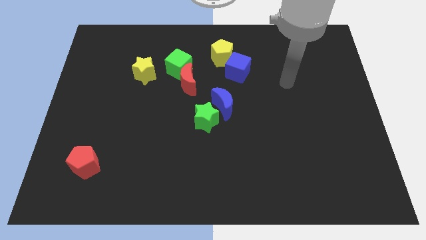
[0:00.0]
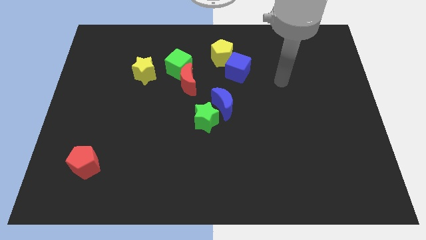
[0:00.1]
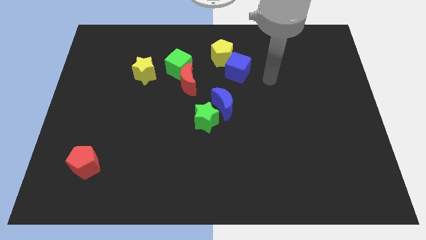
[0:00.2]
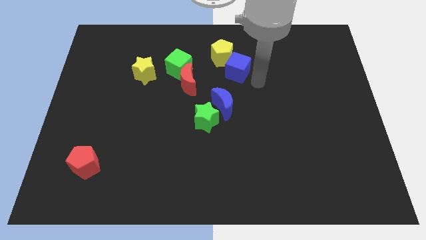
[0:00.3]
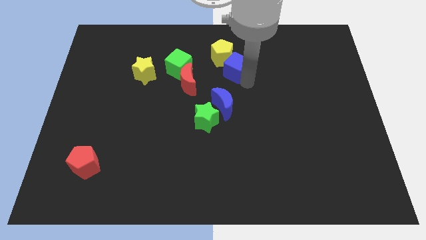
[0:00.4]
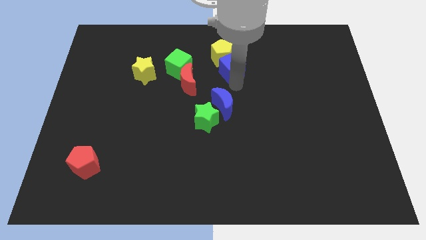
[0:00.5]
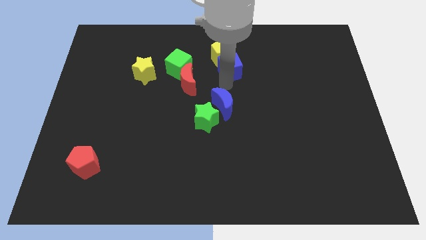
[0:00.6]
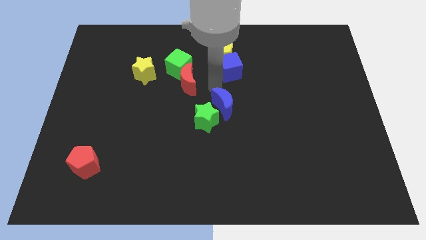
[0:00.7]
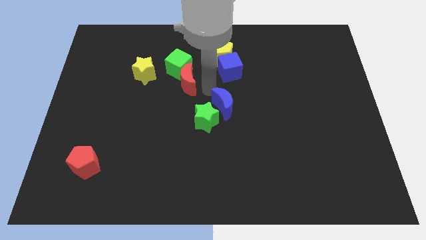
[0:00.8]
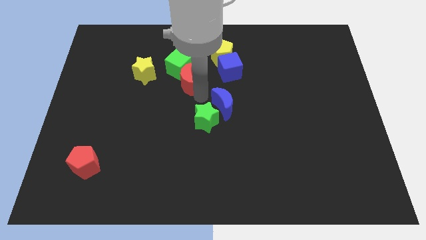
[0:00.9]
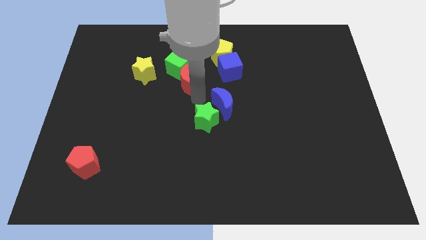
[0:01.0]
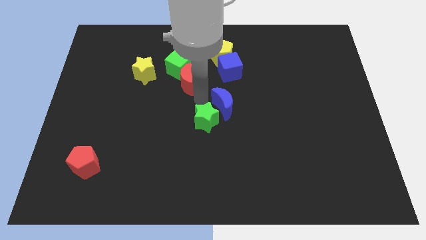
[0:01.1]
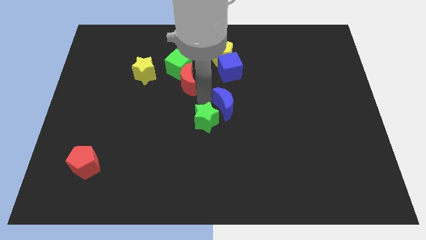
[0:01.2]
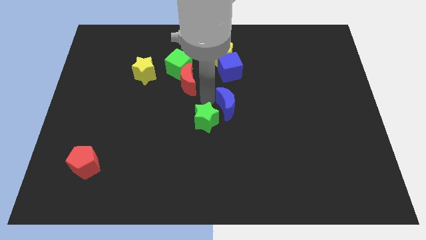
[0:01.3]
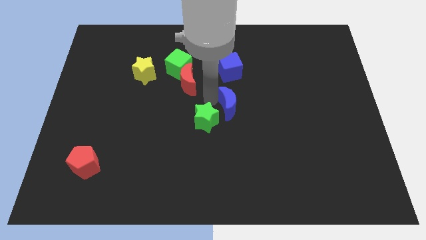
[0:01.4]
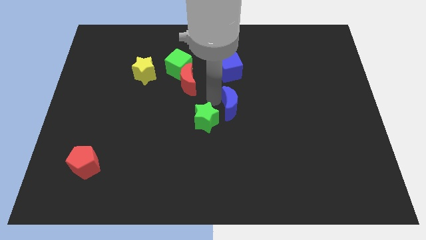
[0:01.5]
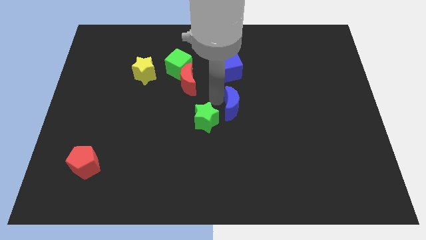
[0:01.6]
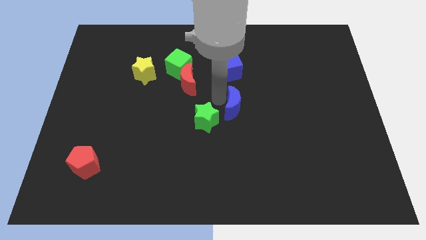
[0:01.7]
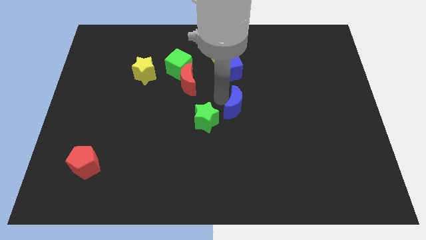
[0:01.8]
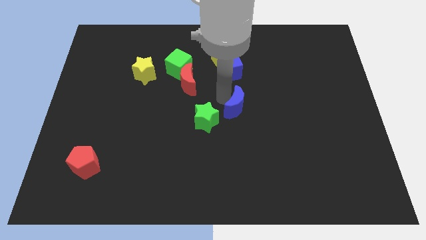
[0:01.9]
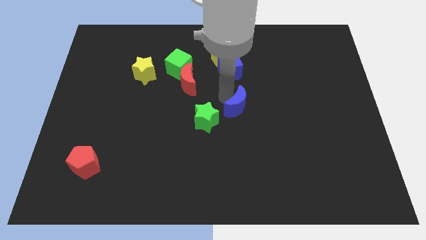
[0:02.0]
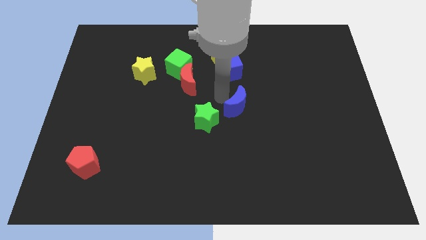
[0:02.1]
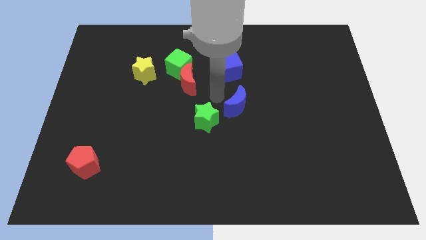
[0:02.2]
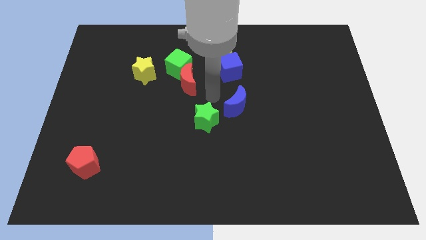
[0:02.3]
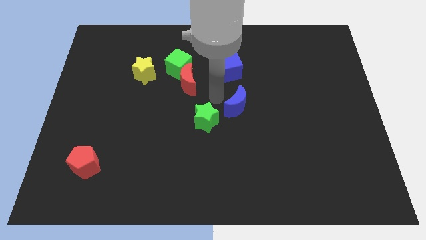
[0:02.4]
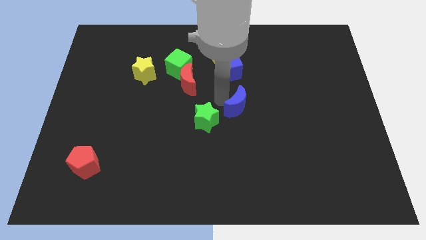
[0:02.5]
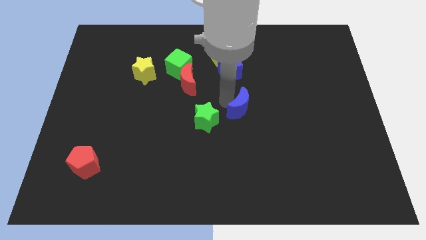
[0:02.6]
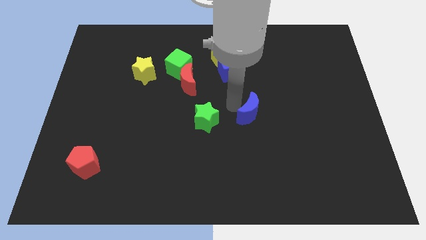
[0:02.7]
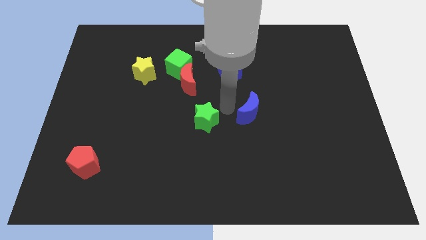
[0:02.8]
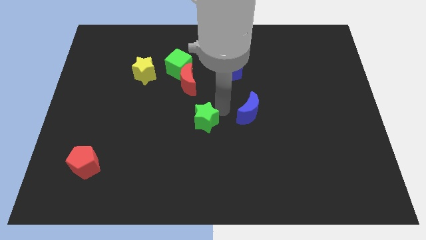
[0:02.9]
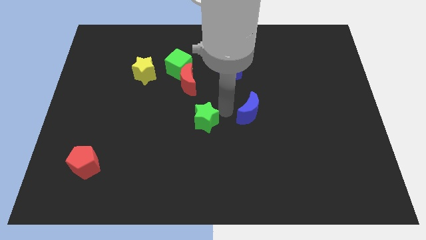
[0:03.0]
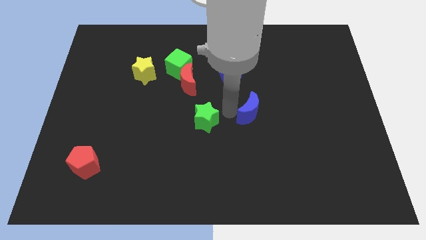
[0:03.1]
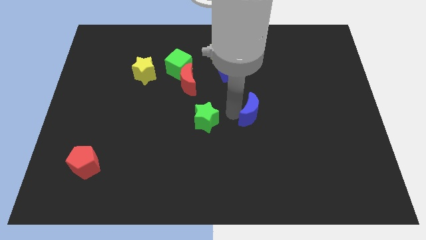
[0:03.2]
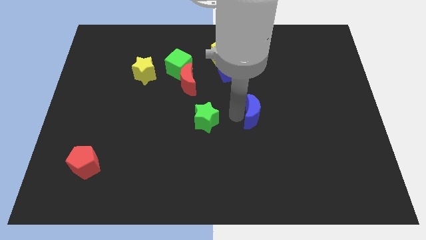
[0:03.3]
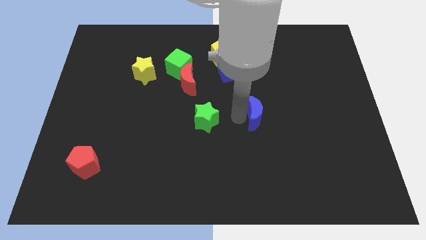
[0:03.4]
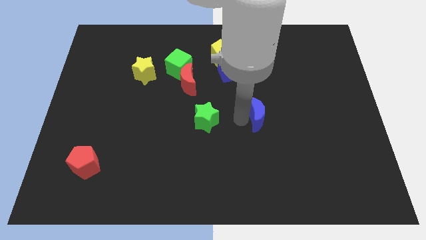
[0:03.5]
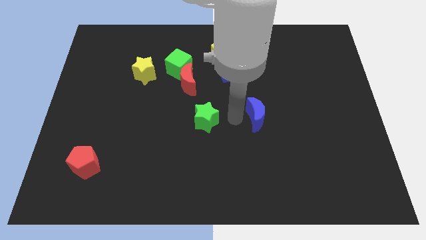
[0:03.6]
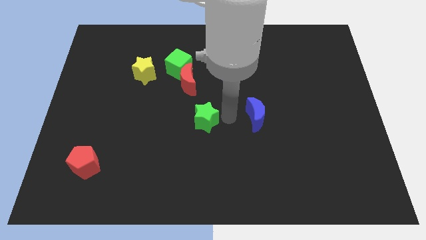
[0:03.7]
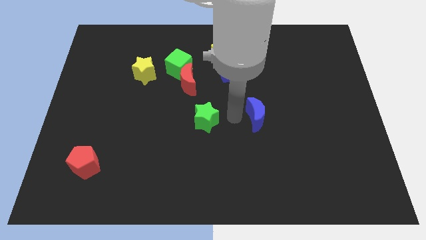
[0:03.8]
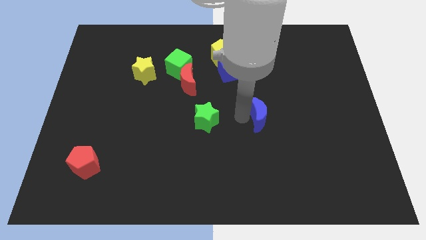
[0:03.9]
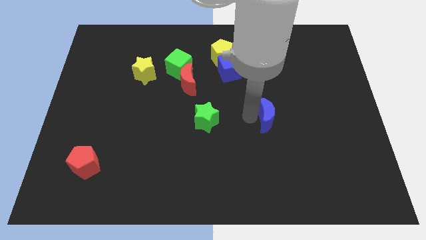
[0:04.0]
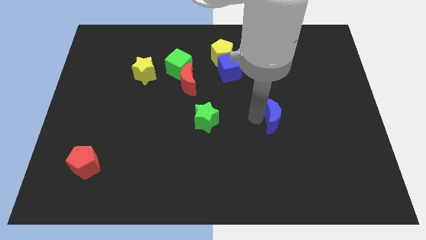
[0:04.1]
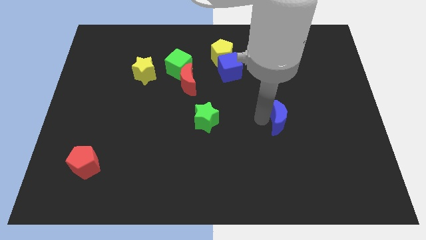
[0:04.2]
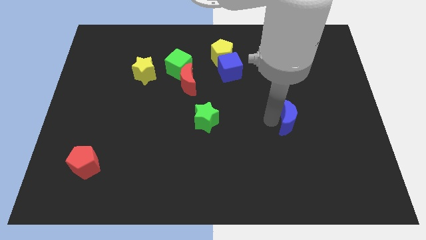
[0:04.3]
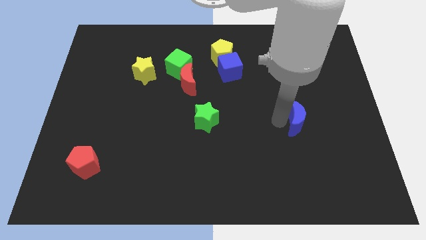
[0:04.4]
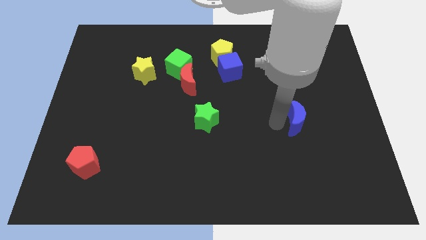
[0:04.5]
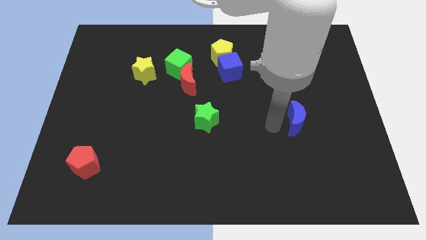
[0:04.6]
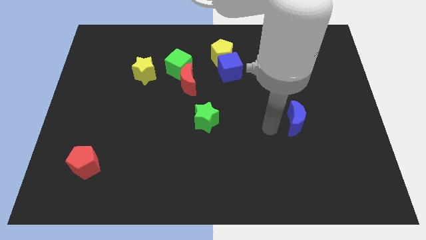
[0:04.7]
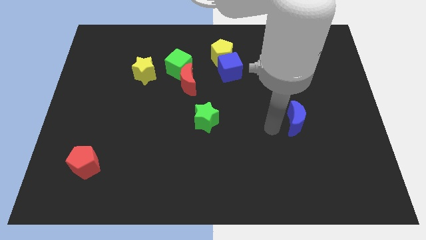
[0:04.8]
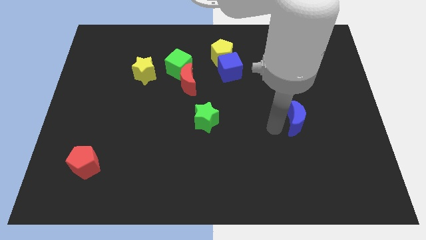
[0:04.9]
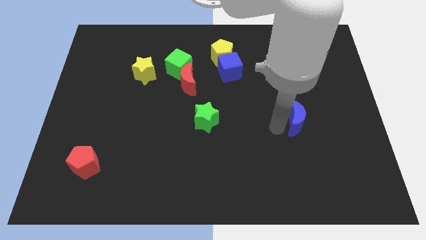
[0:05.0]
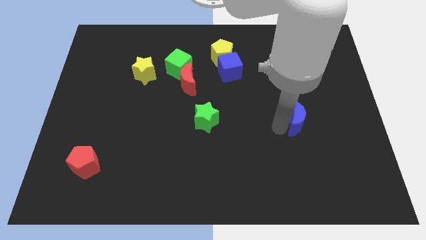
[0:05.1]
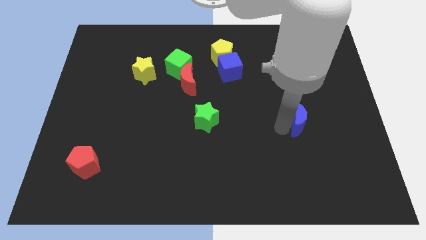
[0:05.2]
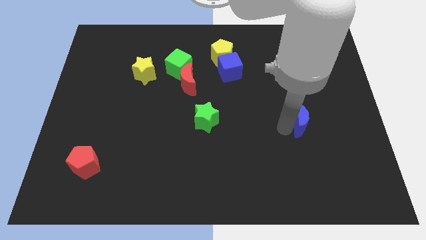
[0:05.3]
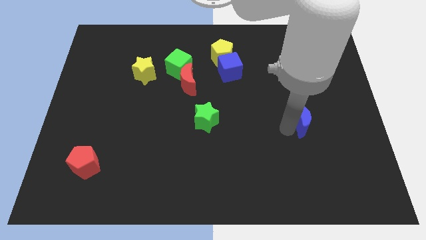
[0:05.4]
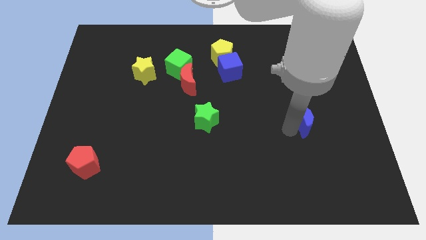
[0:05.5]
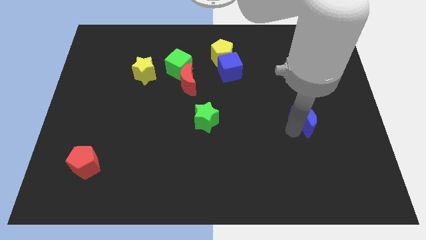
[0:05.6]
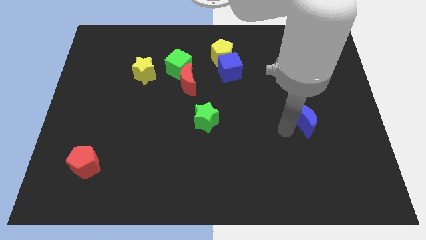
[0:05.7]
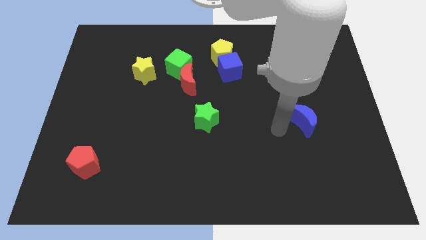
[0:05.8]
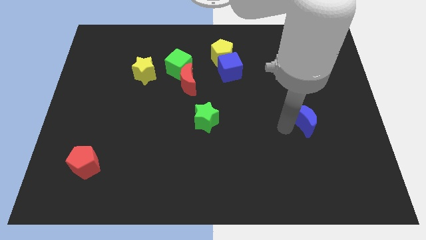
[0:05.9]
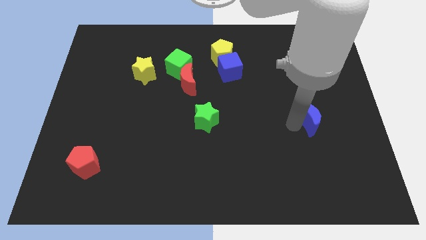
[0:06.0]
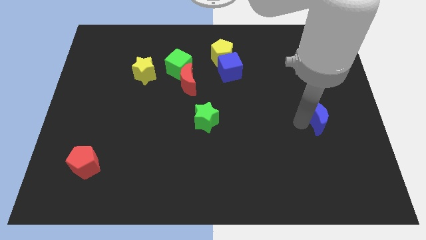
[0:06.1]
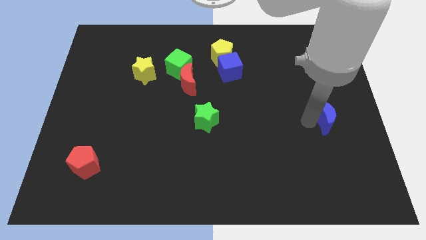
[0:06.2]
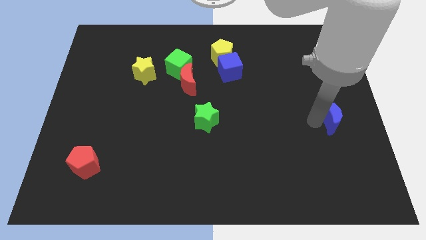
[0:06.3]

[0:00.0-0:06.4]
slide the blue moon to the right side

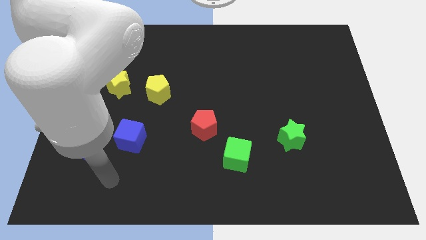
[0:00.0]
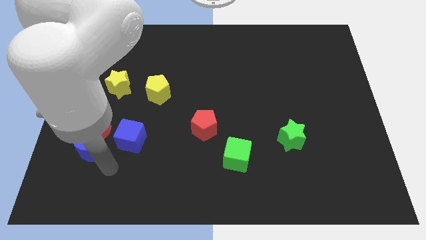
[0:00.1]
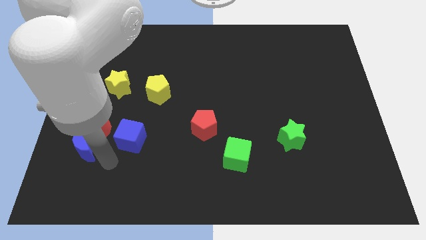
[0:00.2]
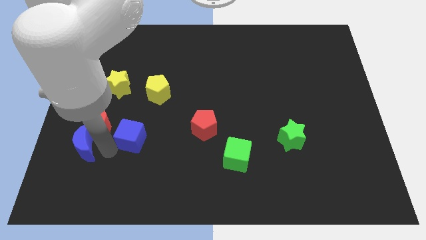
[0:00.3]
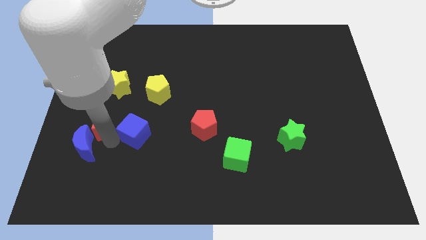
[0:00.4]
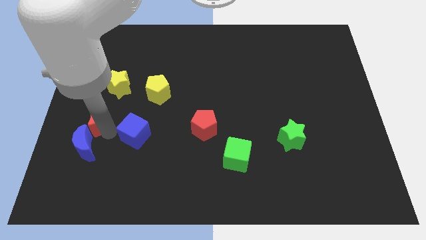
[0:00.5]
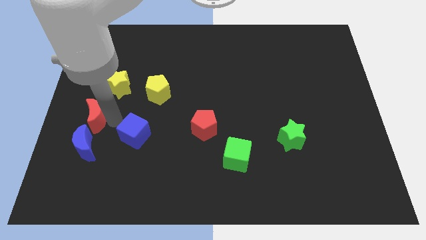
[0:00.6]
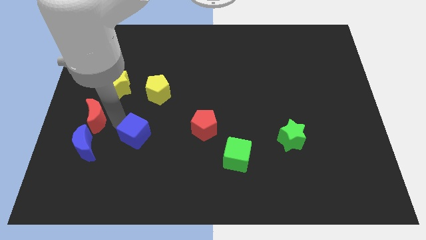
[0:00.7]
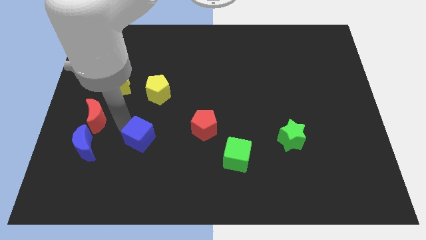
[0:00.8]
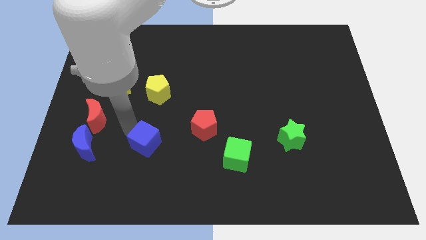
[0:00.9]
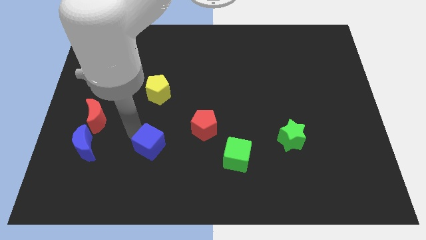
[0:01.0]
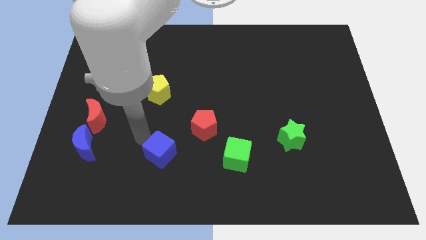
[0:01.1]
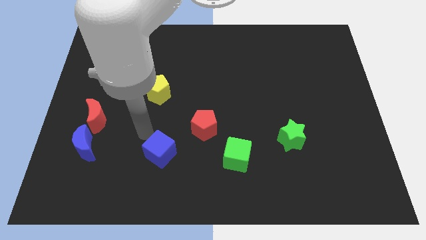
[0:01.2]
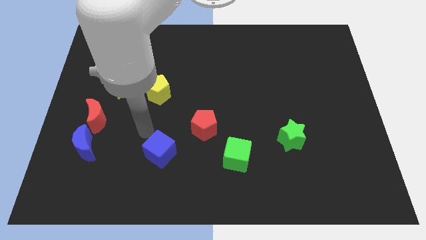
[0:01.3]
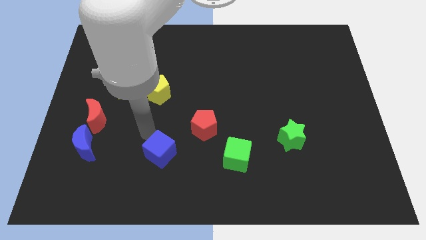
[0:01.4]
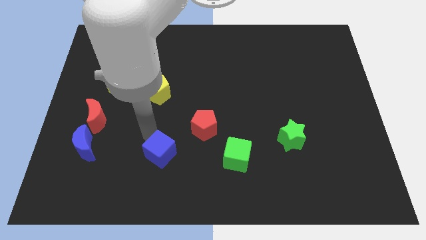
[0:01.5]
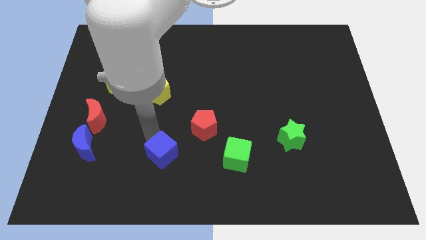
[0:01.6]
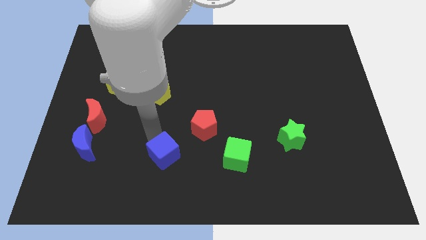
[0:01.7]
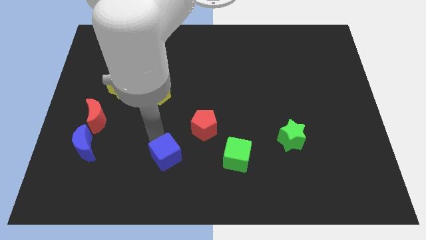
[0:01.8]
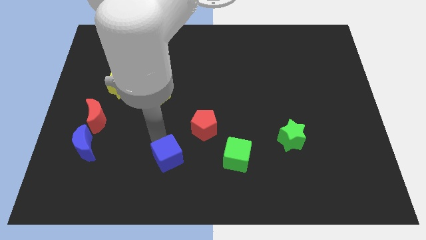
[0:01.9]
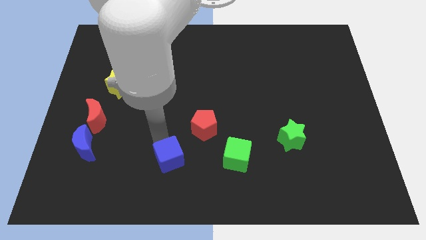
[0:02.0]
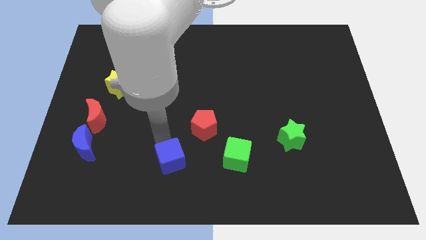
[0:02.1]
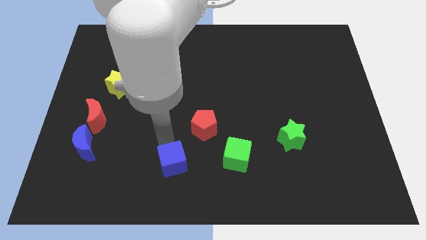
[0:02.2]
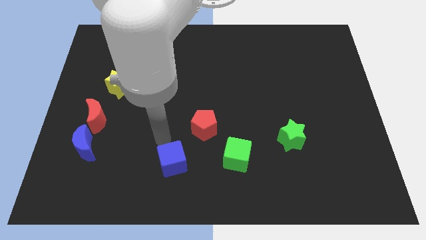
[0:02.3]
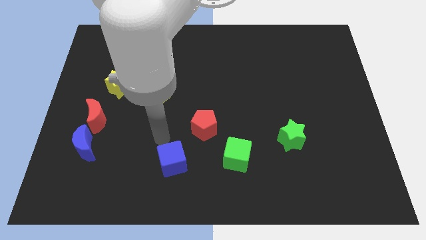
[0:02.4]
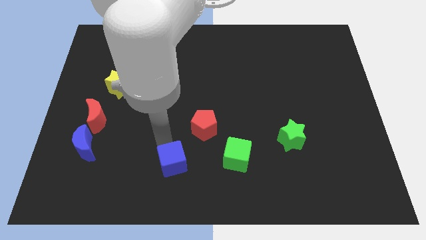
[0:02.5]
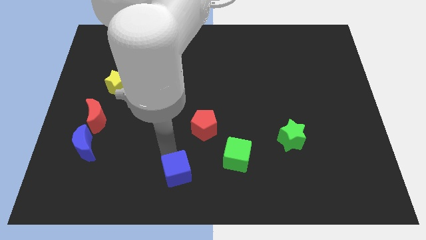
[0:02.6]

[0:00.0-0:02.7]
put the blue cube to the bottom side
